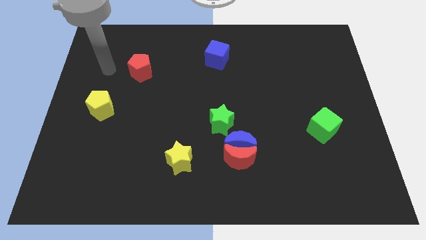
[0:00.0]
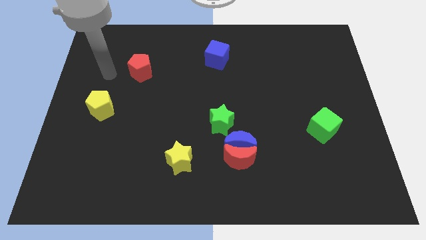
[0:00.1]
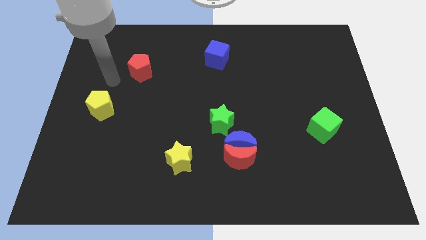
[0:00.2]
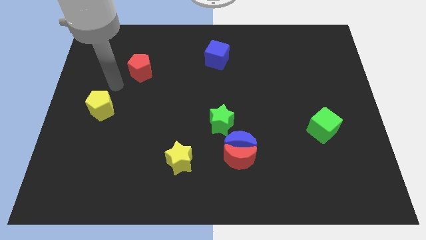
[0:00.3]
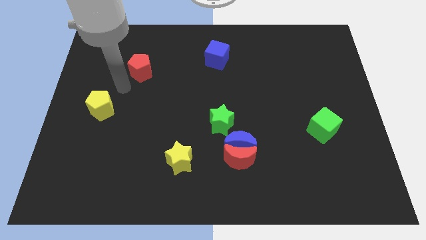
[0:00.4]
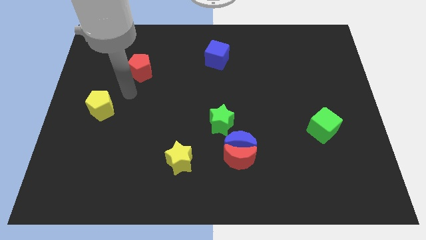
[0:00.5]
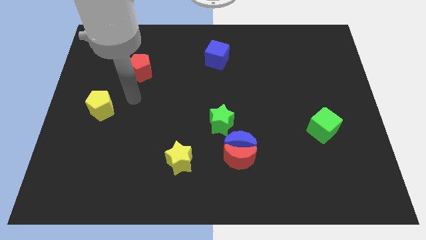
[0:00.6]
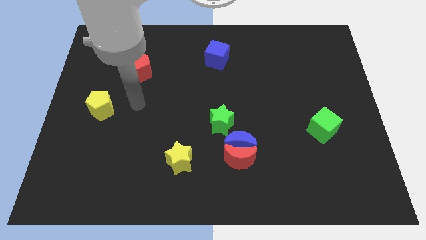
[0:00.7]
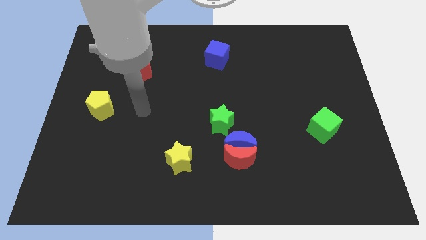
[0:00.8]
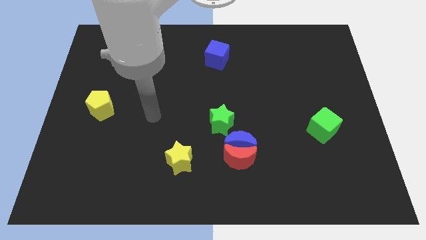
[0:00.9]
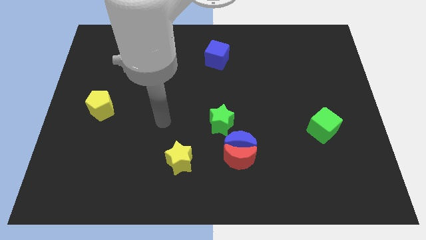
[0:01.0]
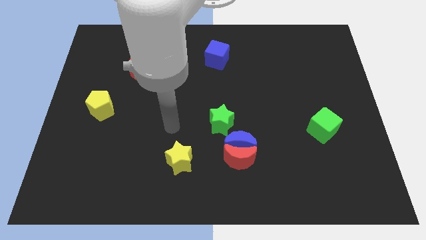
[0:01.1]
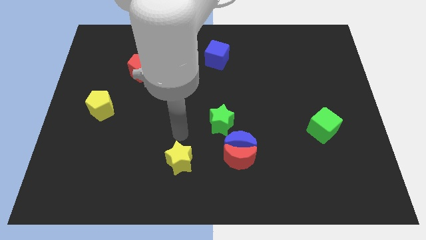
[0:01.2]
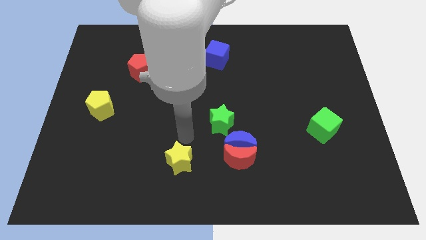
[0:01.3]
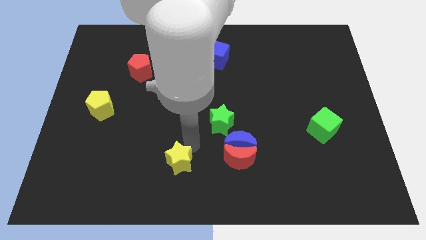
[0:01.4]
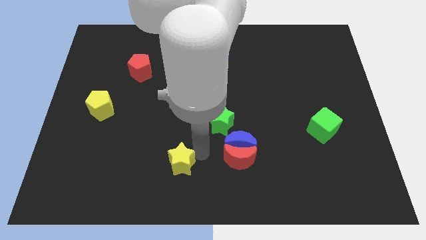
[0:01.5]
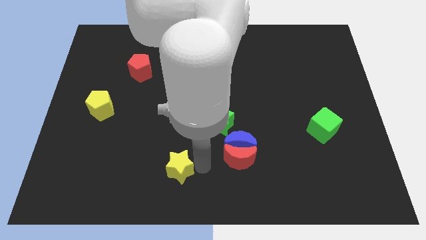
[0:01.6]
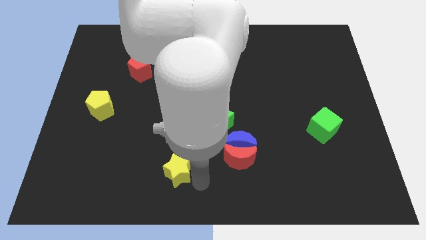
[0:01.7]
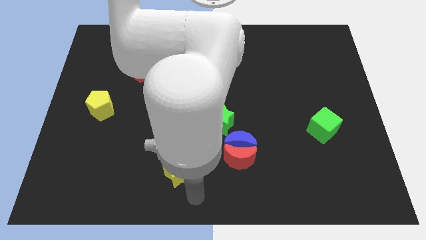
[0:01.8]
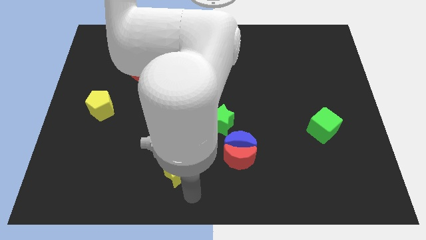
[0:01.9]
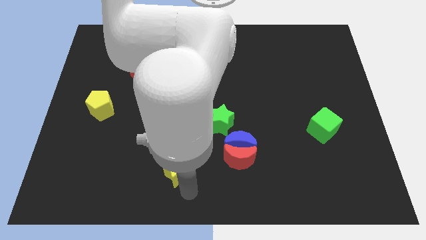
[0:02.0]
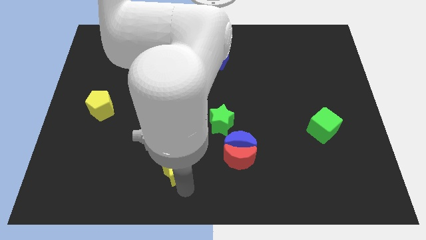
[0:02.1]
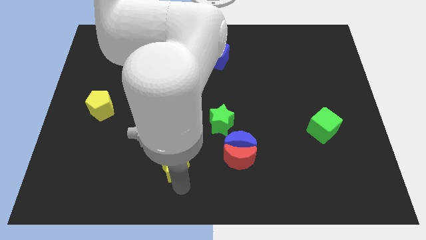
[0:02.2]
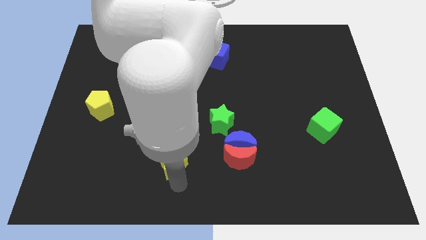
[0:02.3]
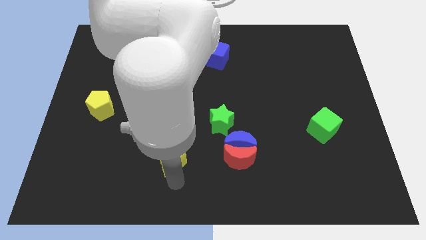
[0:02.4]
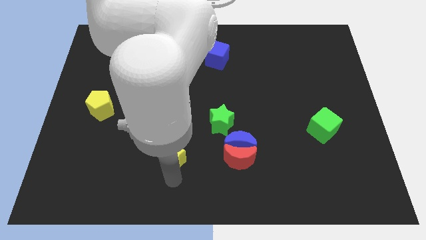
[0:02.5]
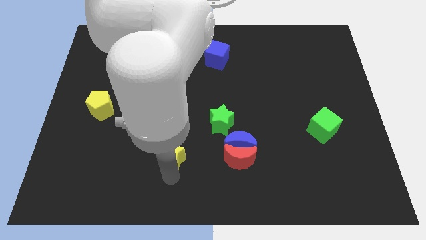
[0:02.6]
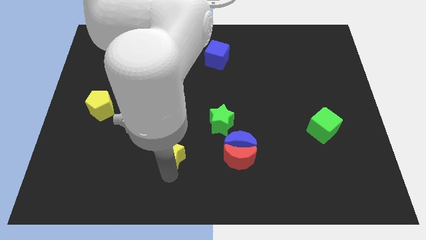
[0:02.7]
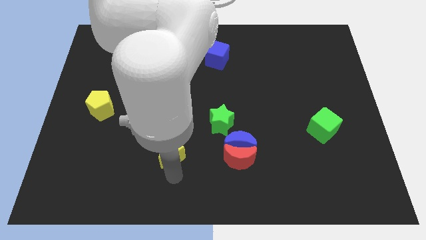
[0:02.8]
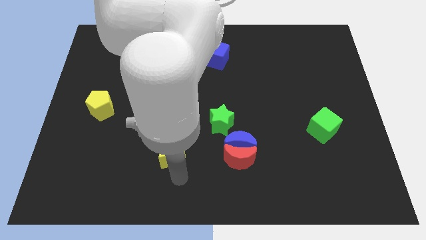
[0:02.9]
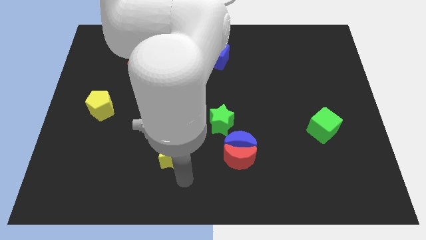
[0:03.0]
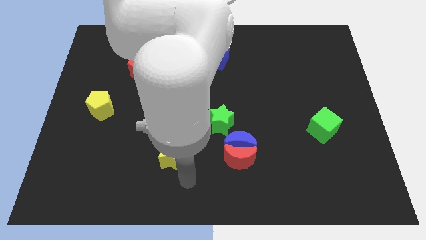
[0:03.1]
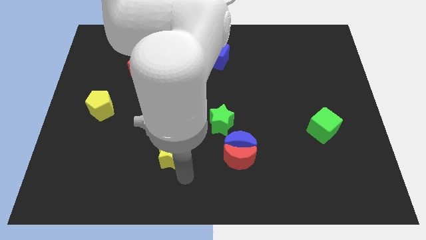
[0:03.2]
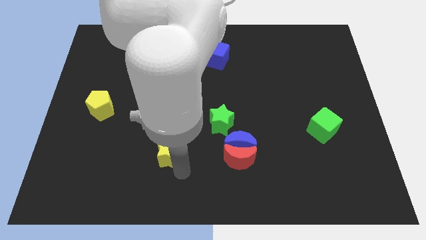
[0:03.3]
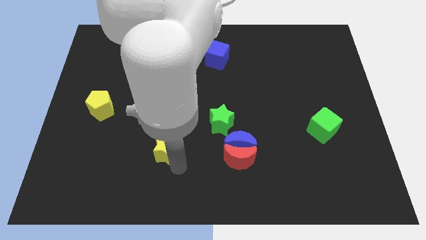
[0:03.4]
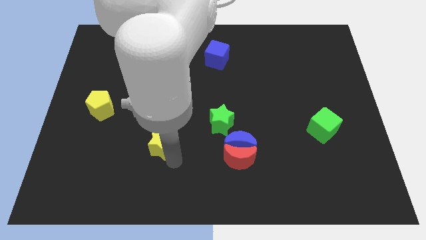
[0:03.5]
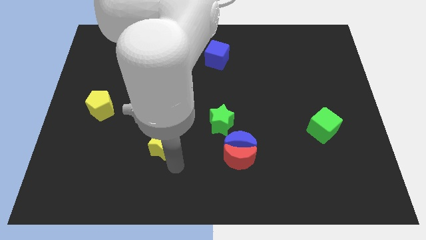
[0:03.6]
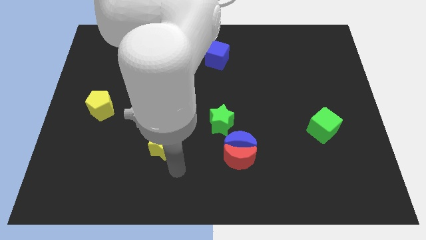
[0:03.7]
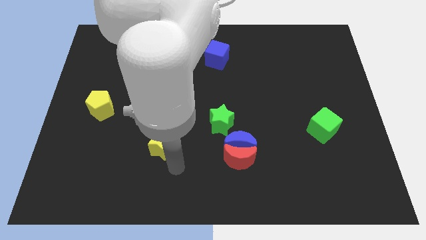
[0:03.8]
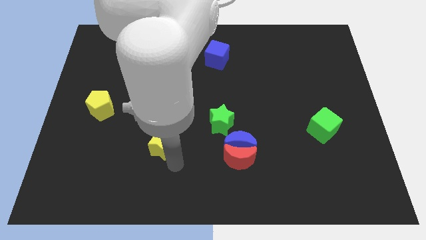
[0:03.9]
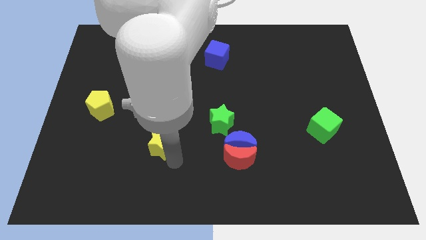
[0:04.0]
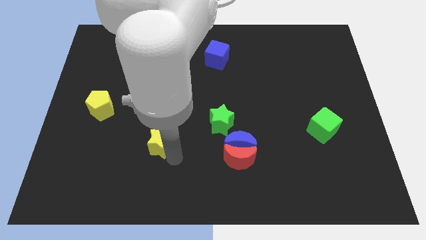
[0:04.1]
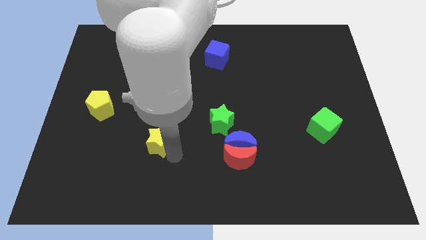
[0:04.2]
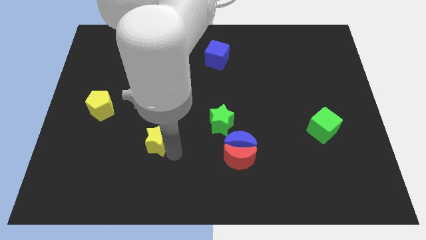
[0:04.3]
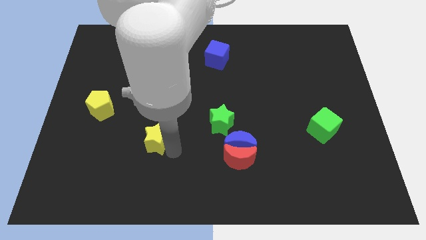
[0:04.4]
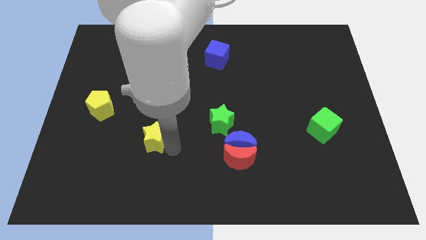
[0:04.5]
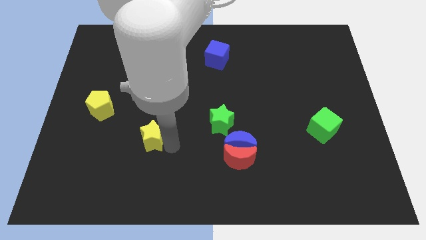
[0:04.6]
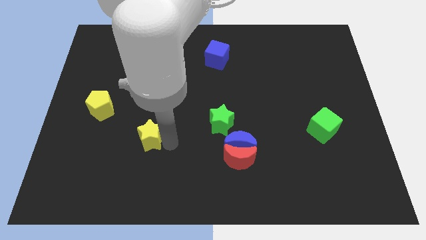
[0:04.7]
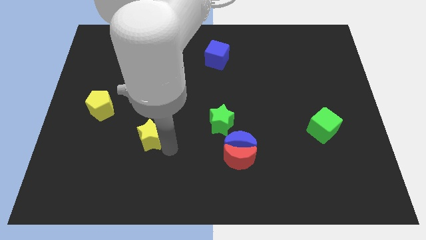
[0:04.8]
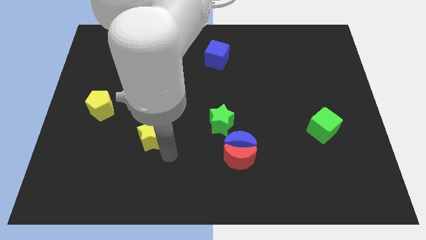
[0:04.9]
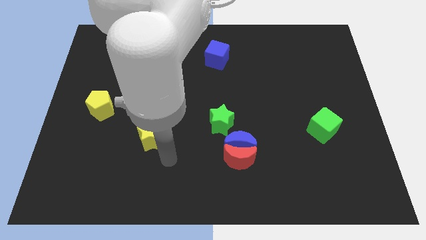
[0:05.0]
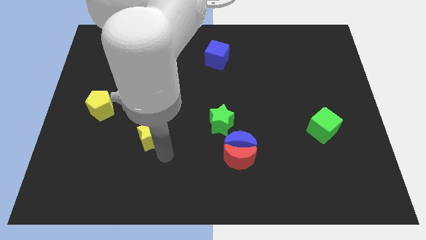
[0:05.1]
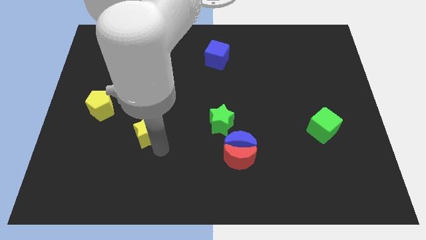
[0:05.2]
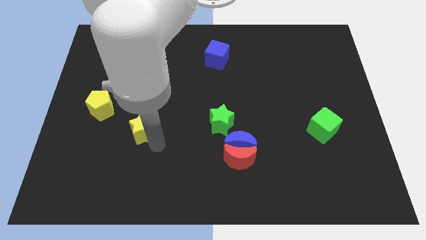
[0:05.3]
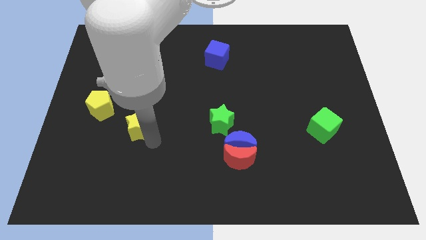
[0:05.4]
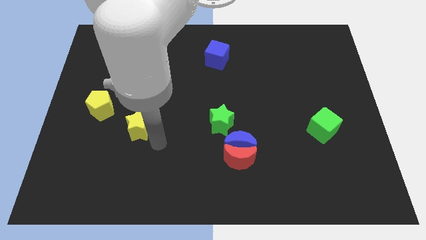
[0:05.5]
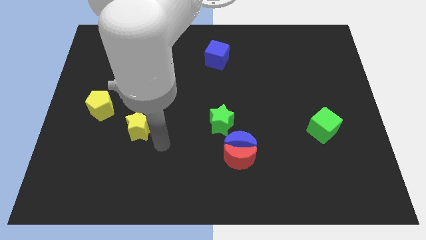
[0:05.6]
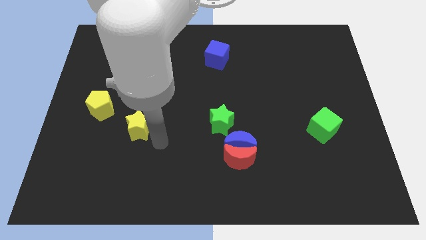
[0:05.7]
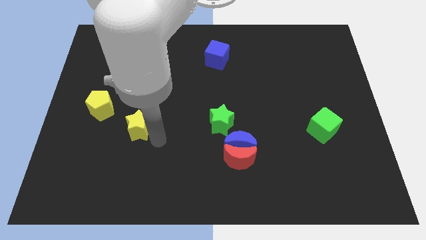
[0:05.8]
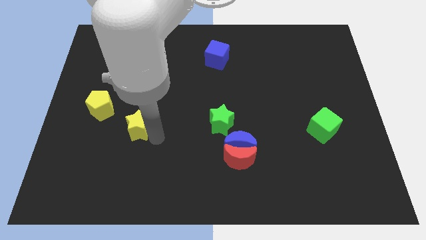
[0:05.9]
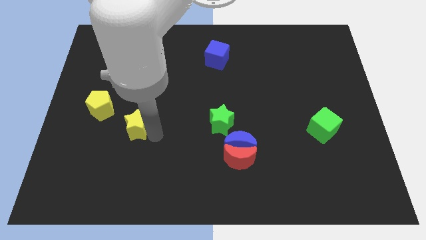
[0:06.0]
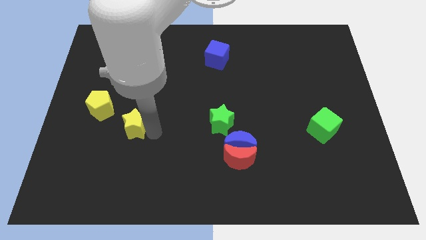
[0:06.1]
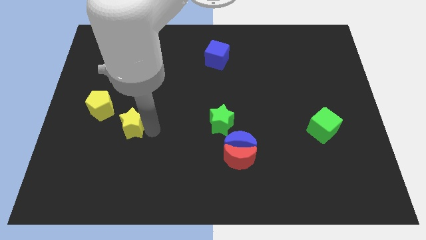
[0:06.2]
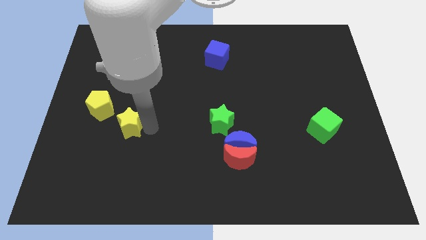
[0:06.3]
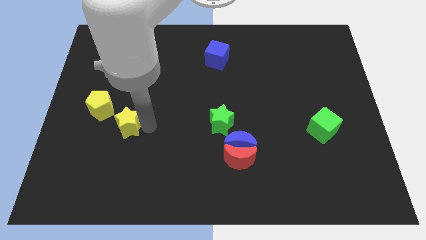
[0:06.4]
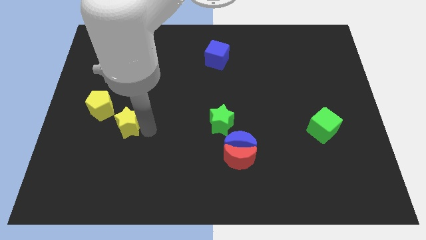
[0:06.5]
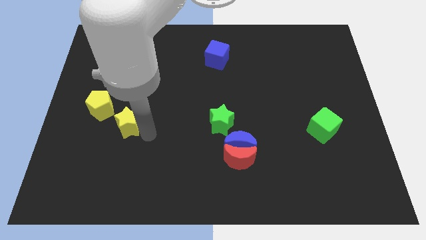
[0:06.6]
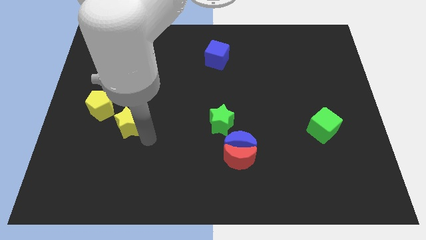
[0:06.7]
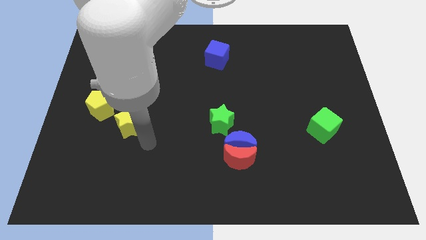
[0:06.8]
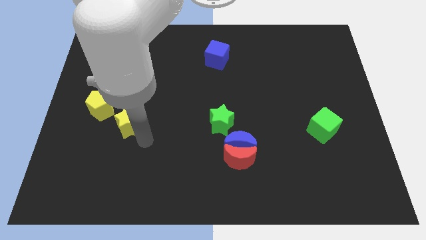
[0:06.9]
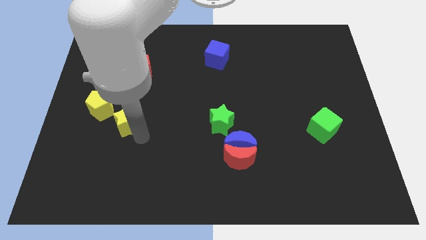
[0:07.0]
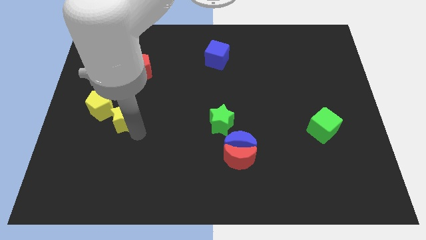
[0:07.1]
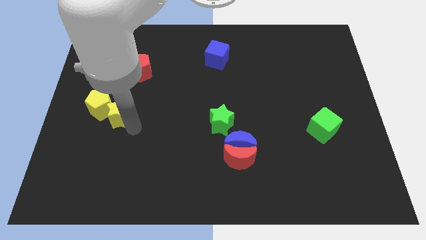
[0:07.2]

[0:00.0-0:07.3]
move the yellow star to the yellow pentagon

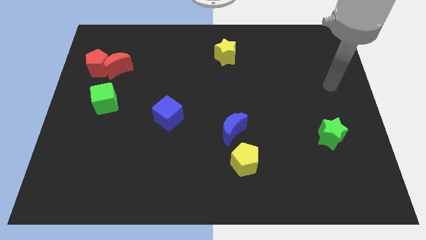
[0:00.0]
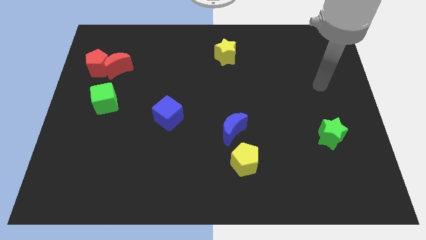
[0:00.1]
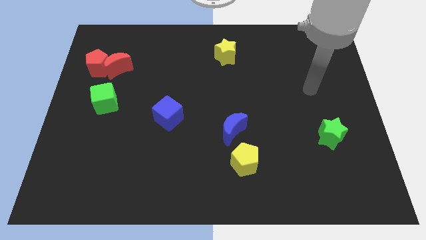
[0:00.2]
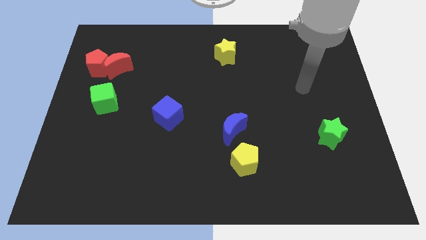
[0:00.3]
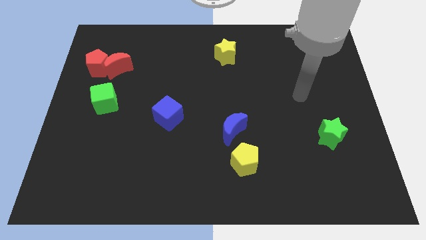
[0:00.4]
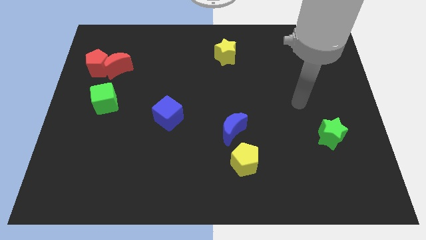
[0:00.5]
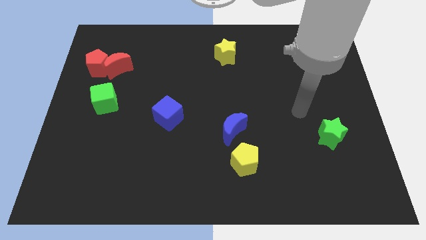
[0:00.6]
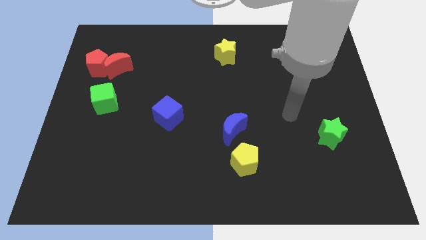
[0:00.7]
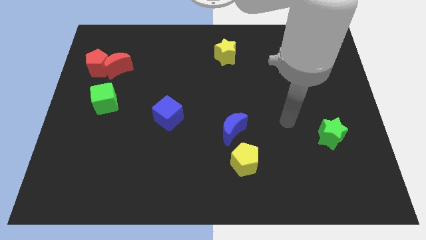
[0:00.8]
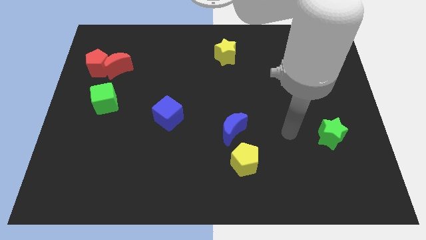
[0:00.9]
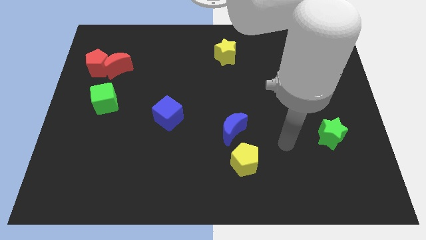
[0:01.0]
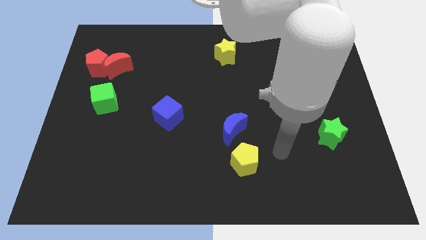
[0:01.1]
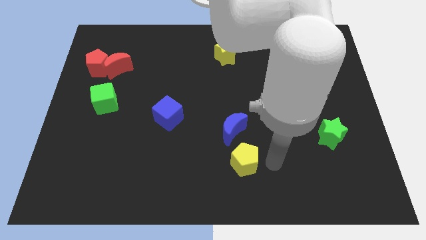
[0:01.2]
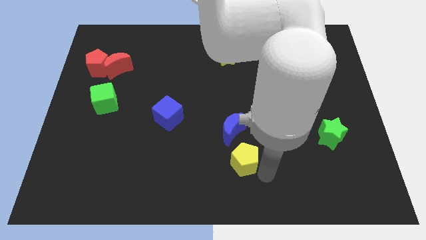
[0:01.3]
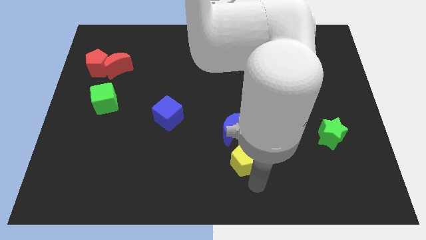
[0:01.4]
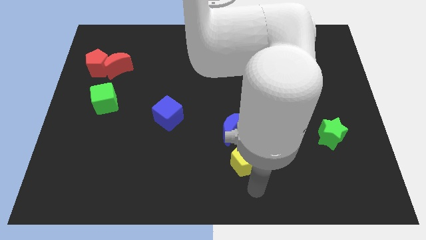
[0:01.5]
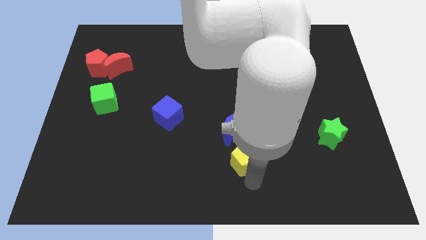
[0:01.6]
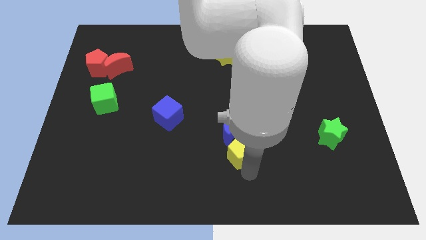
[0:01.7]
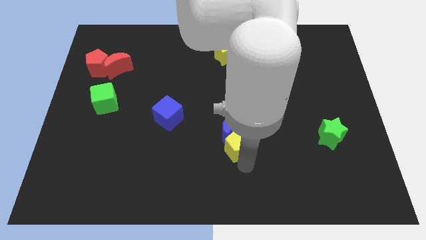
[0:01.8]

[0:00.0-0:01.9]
slide the yellow pentagon towards the blue moon
